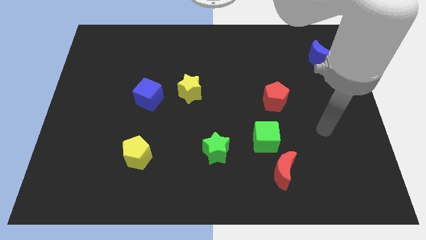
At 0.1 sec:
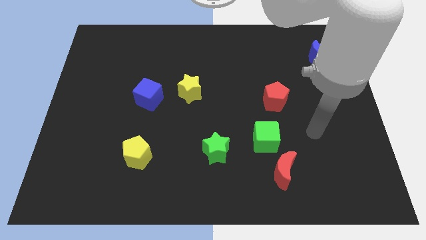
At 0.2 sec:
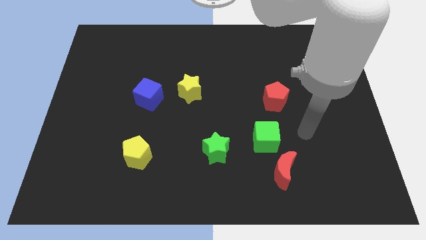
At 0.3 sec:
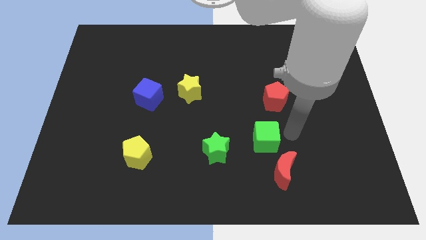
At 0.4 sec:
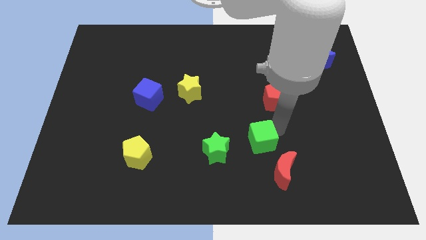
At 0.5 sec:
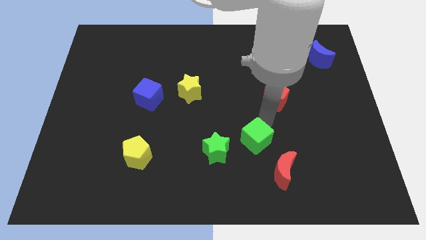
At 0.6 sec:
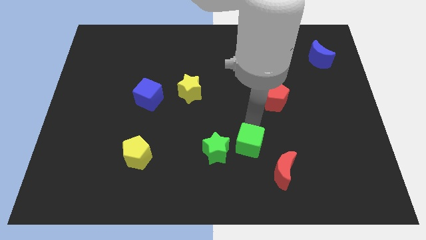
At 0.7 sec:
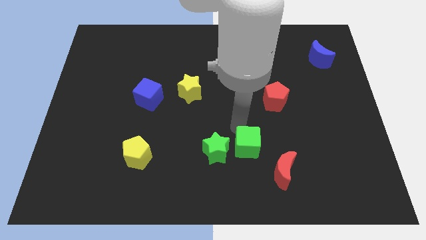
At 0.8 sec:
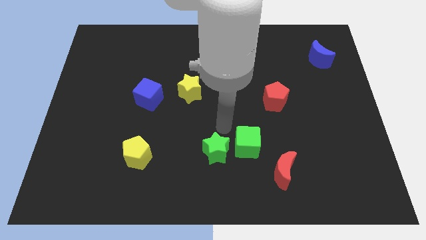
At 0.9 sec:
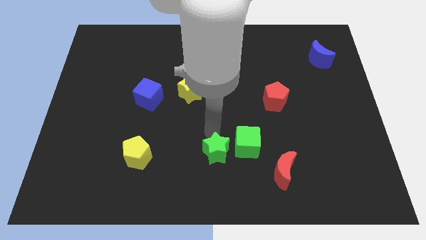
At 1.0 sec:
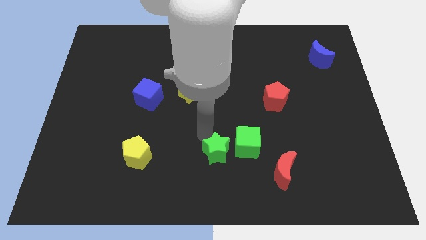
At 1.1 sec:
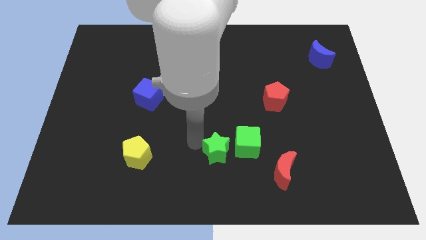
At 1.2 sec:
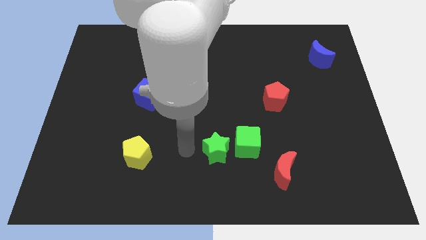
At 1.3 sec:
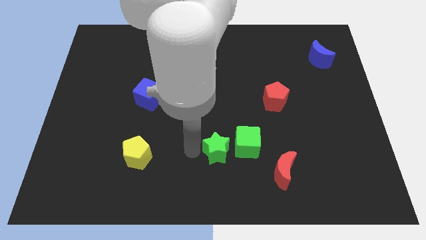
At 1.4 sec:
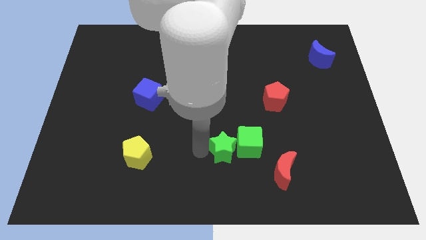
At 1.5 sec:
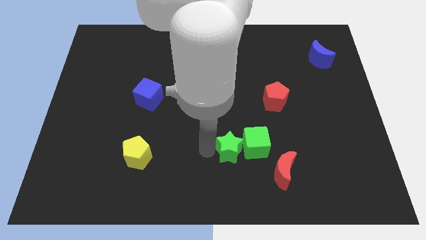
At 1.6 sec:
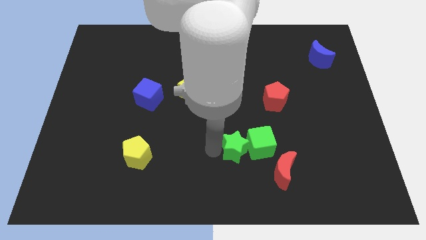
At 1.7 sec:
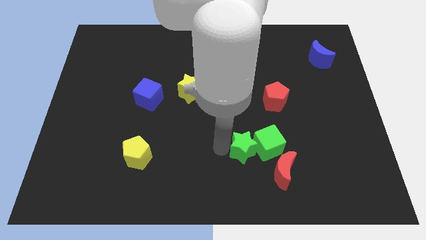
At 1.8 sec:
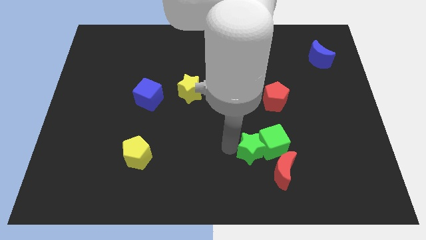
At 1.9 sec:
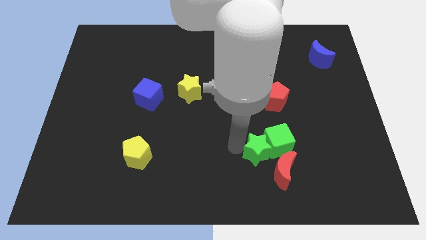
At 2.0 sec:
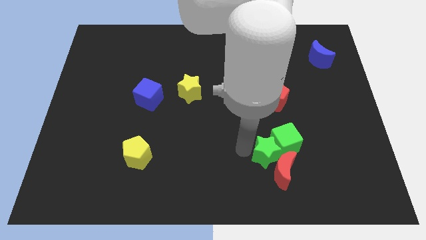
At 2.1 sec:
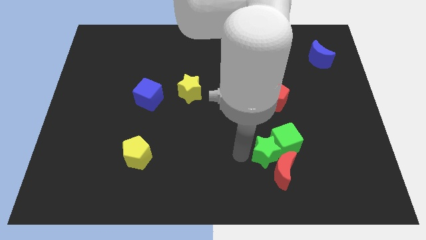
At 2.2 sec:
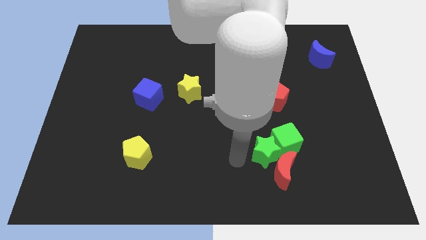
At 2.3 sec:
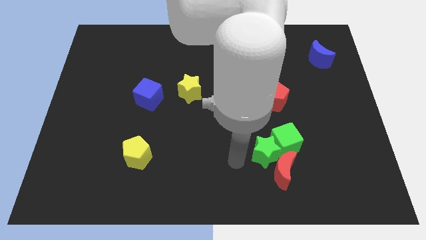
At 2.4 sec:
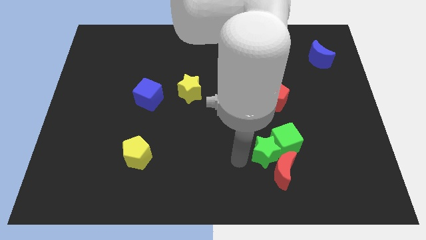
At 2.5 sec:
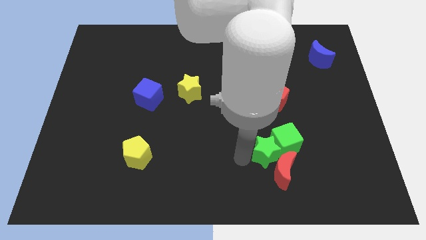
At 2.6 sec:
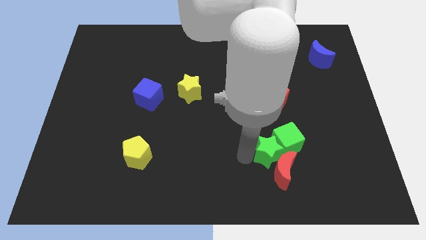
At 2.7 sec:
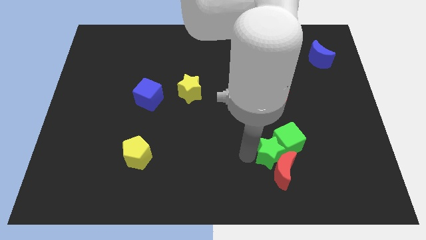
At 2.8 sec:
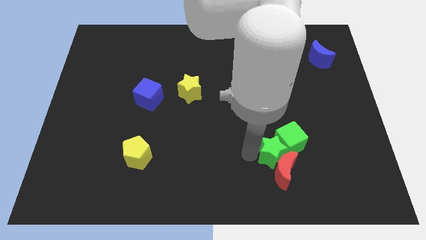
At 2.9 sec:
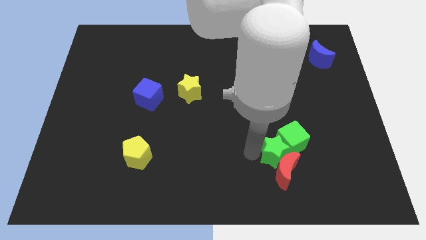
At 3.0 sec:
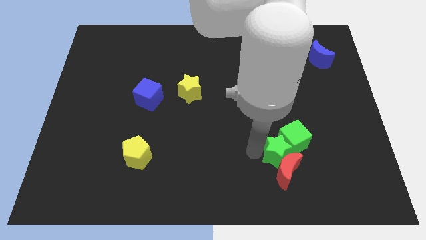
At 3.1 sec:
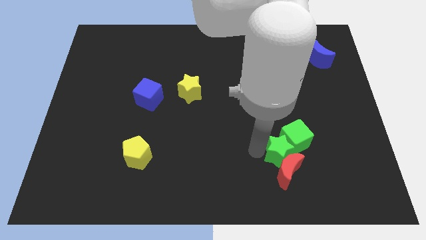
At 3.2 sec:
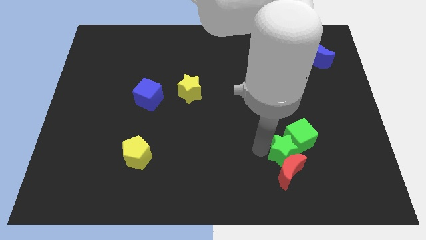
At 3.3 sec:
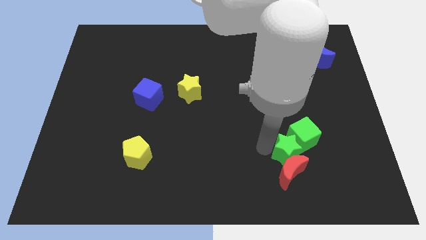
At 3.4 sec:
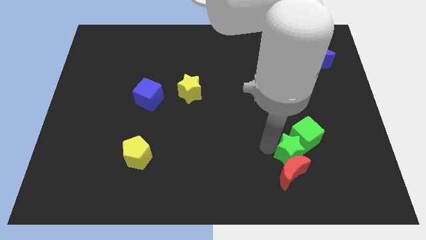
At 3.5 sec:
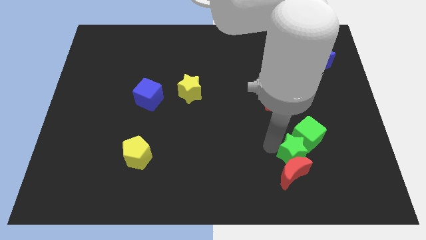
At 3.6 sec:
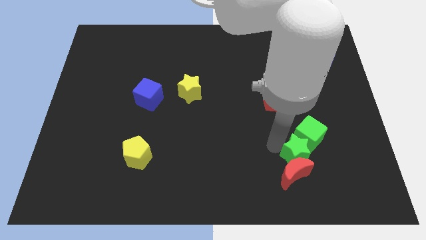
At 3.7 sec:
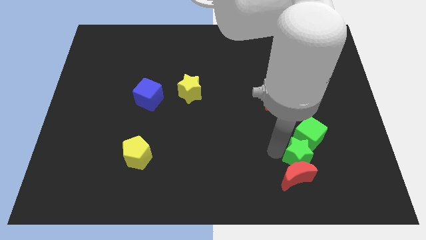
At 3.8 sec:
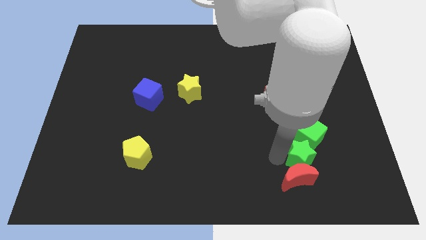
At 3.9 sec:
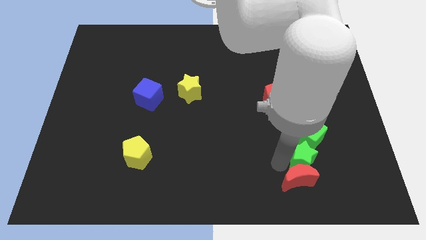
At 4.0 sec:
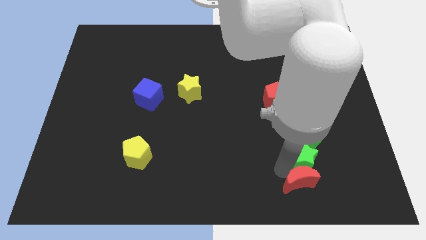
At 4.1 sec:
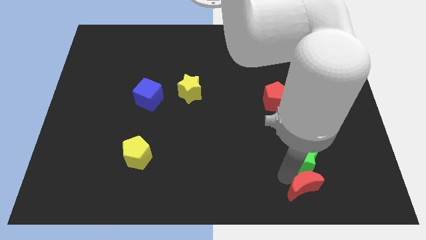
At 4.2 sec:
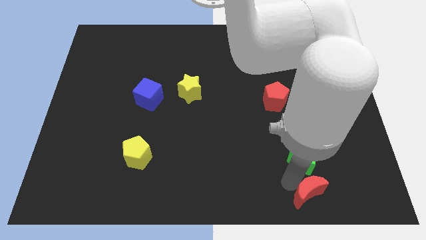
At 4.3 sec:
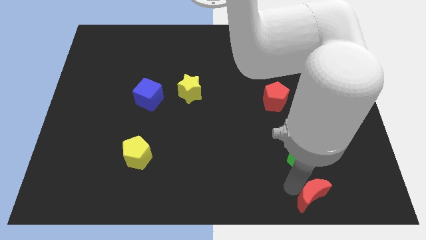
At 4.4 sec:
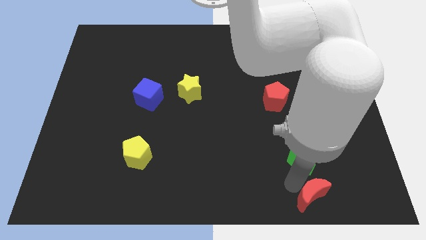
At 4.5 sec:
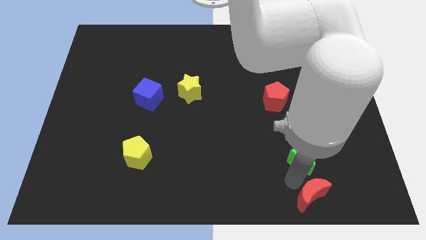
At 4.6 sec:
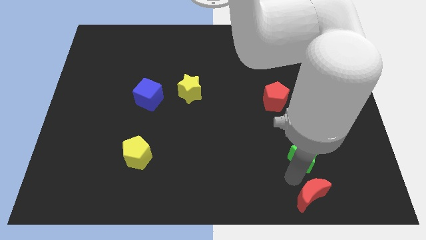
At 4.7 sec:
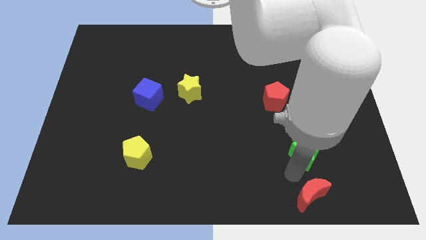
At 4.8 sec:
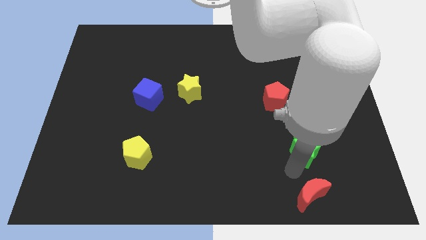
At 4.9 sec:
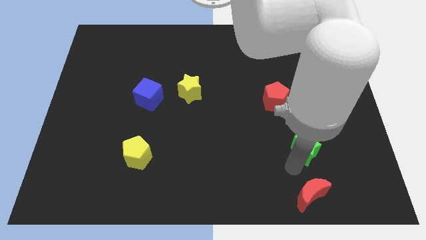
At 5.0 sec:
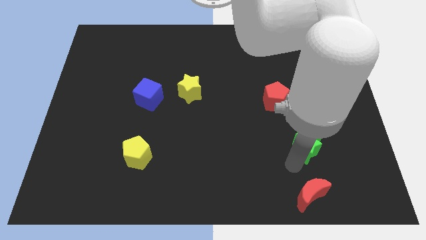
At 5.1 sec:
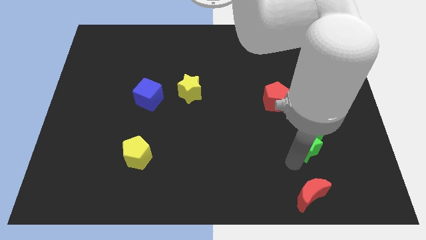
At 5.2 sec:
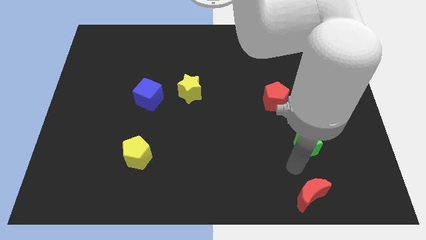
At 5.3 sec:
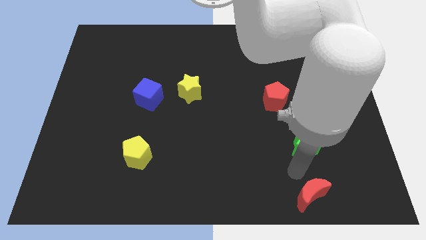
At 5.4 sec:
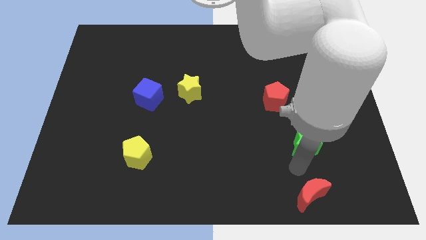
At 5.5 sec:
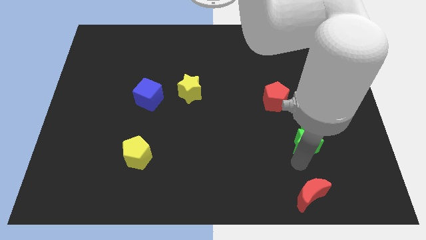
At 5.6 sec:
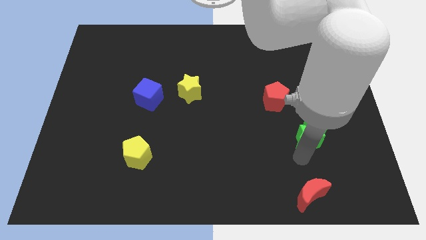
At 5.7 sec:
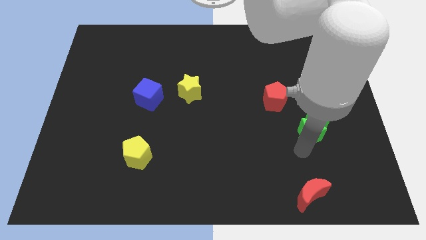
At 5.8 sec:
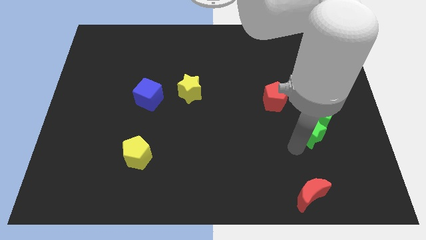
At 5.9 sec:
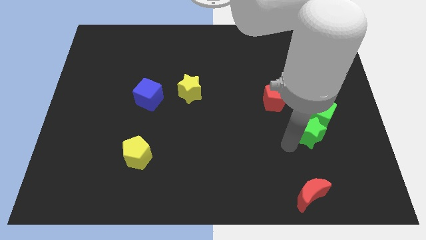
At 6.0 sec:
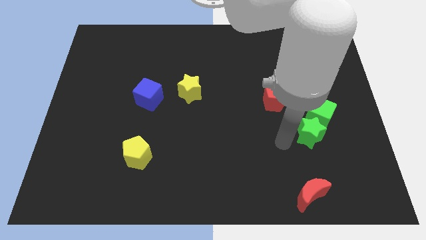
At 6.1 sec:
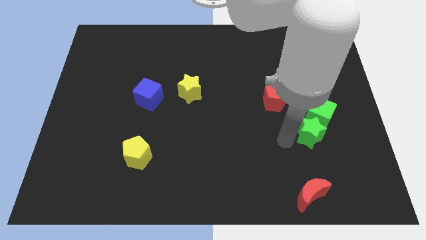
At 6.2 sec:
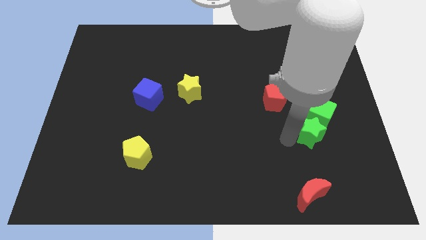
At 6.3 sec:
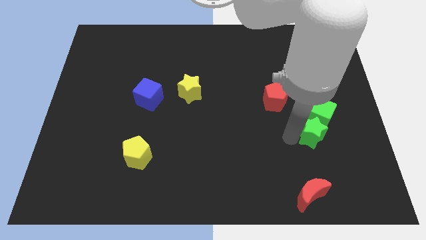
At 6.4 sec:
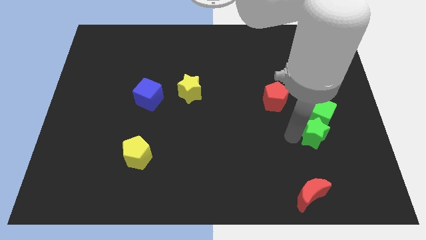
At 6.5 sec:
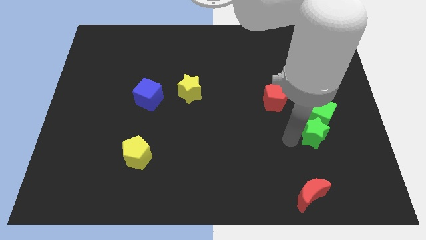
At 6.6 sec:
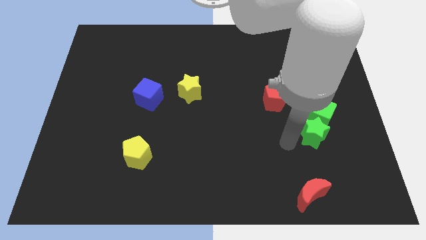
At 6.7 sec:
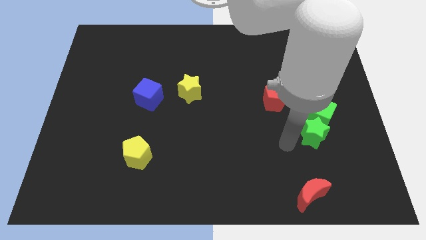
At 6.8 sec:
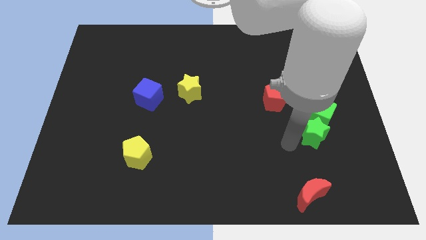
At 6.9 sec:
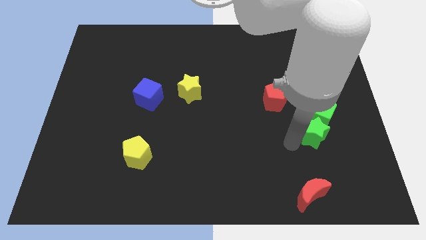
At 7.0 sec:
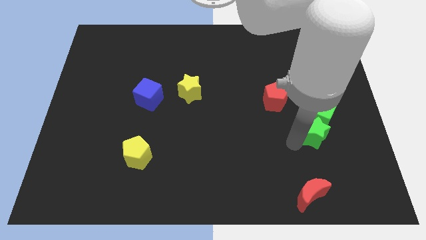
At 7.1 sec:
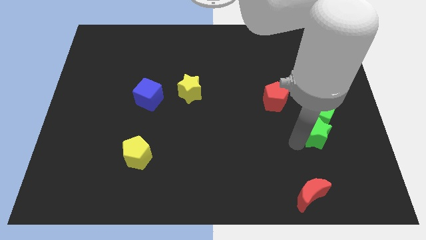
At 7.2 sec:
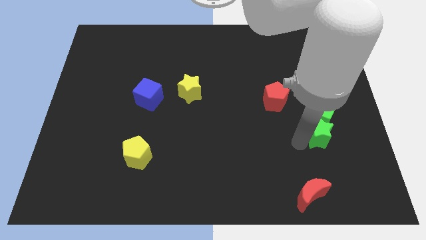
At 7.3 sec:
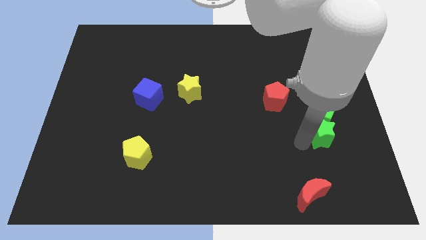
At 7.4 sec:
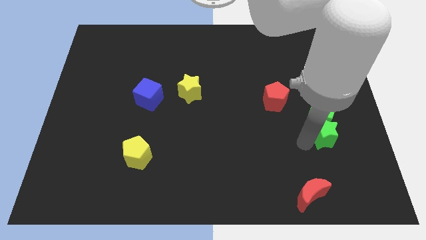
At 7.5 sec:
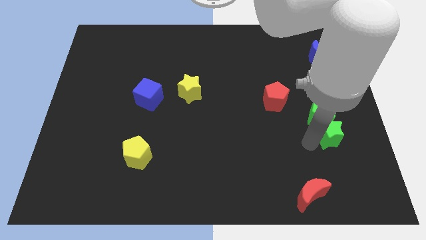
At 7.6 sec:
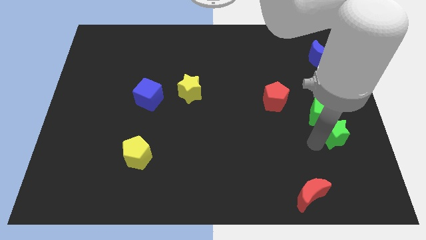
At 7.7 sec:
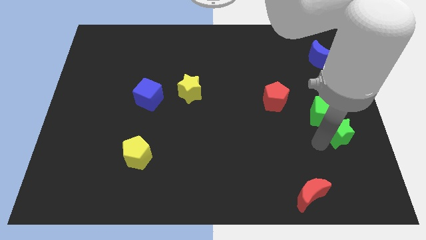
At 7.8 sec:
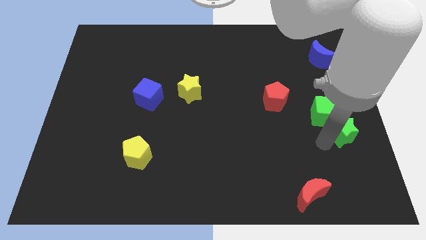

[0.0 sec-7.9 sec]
put the green star to the center right
